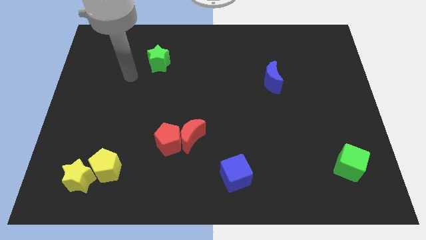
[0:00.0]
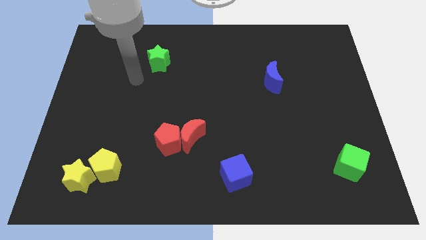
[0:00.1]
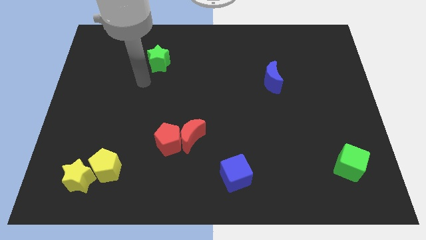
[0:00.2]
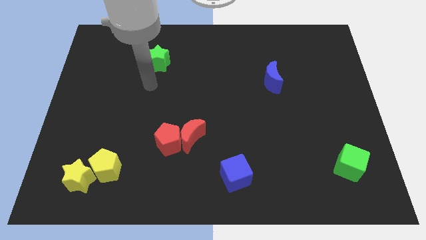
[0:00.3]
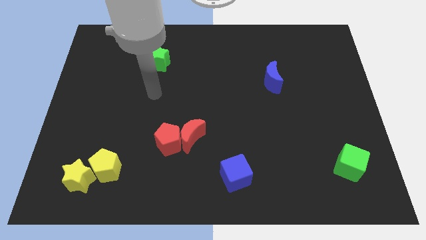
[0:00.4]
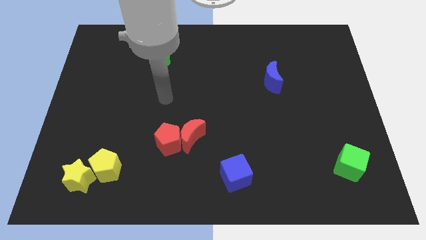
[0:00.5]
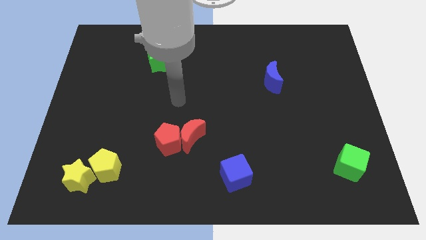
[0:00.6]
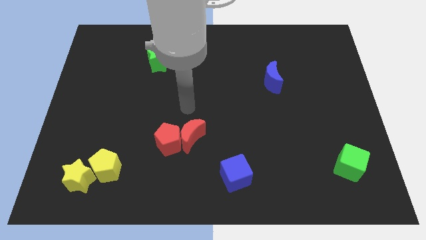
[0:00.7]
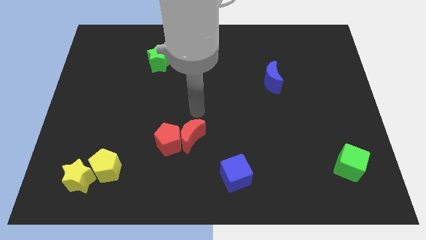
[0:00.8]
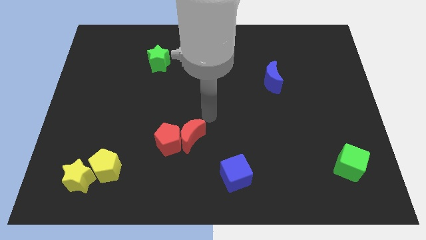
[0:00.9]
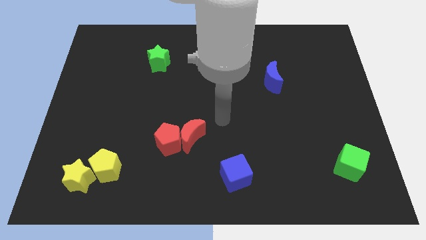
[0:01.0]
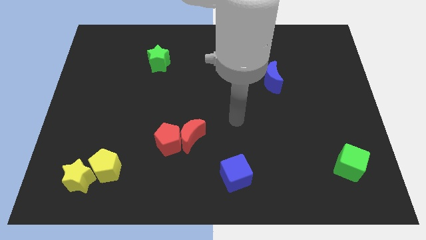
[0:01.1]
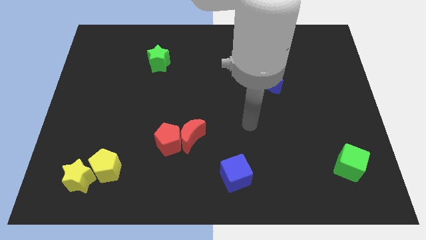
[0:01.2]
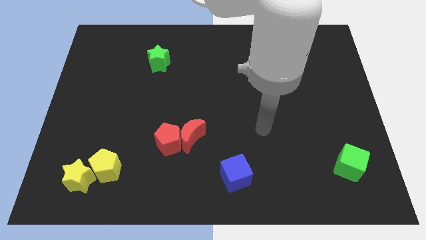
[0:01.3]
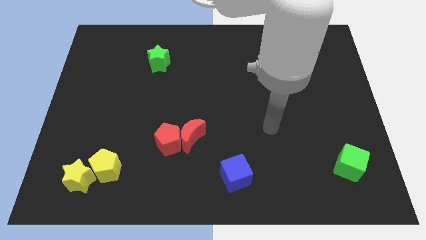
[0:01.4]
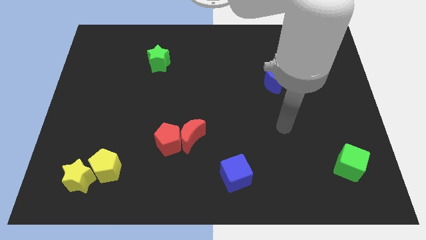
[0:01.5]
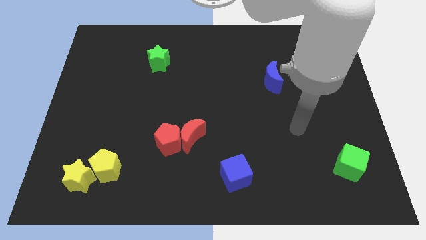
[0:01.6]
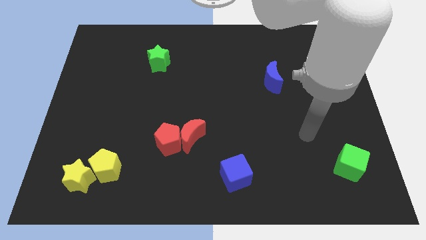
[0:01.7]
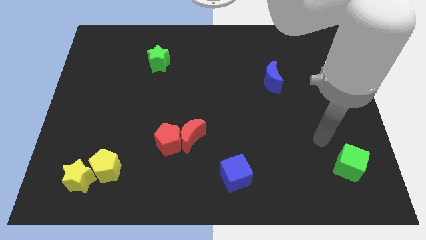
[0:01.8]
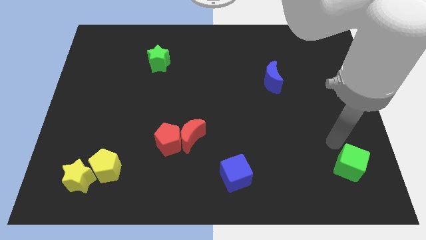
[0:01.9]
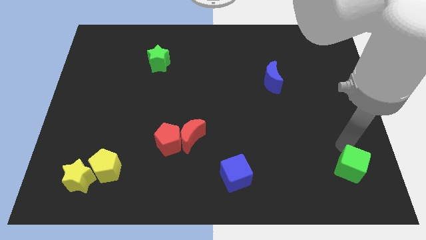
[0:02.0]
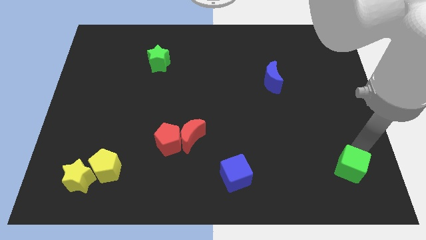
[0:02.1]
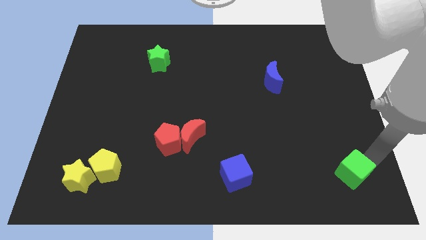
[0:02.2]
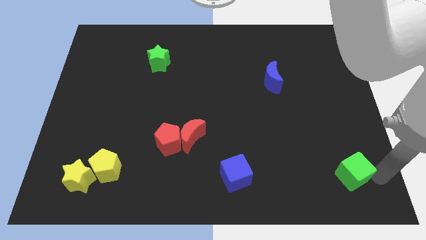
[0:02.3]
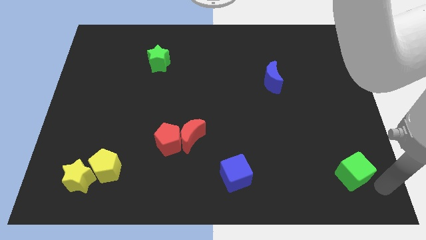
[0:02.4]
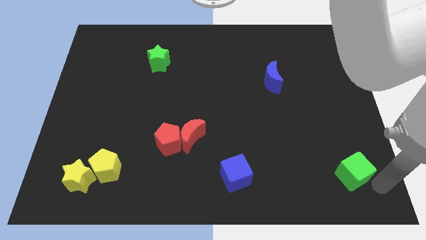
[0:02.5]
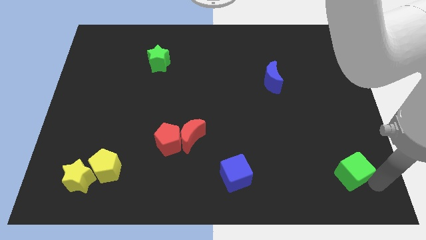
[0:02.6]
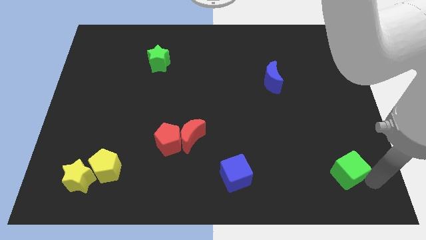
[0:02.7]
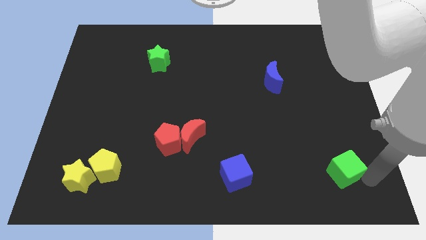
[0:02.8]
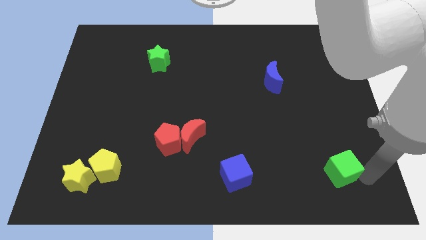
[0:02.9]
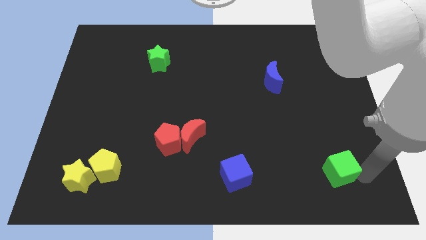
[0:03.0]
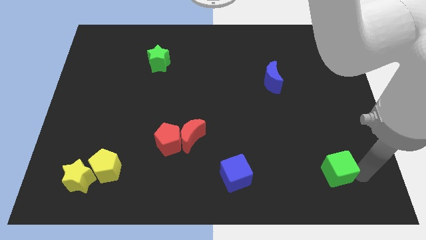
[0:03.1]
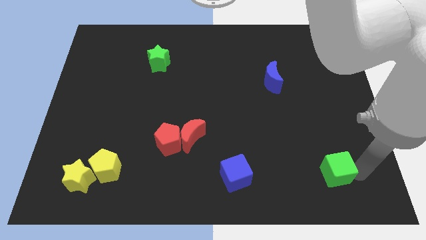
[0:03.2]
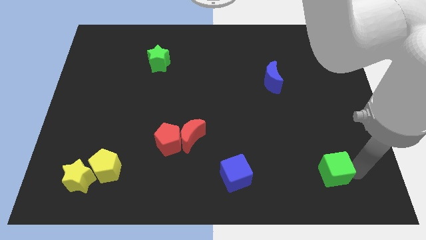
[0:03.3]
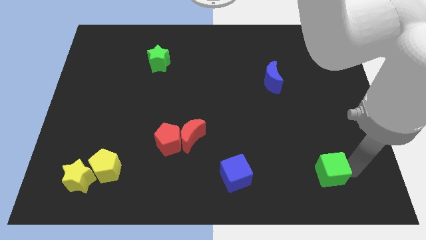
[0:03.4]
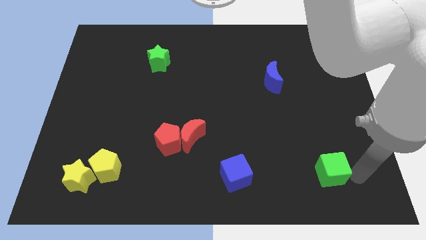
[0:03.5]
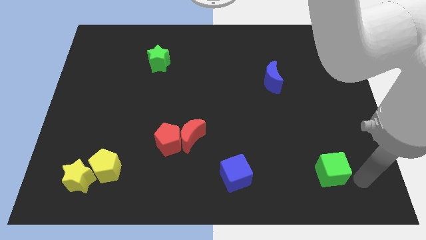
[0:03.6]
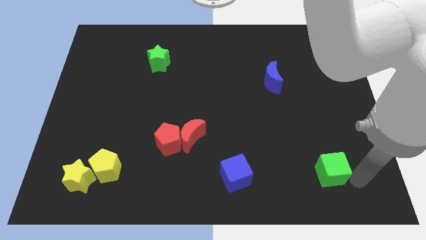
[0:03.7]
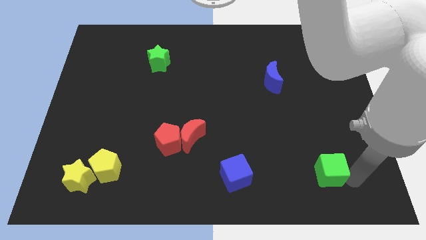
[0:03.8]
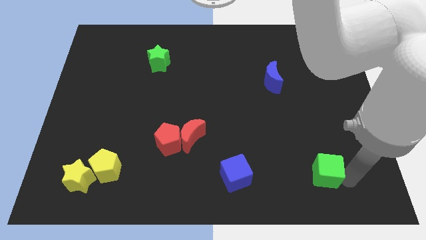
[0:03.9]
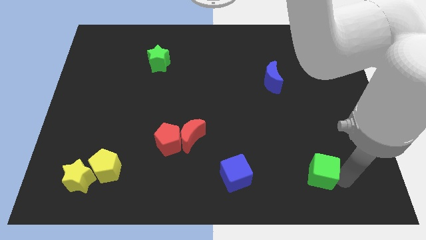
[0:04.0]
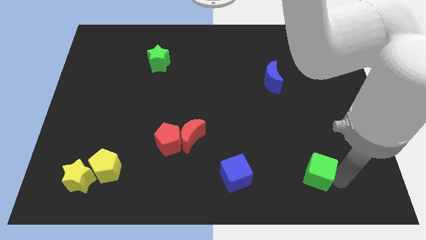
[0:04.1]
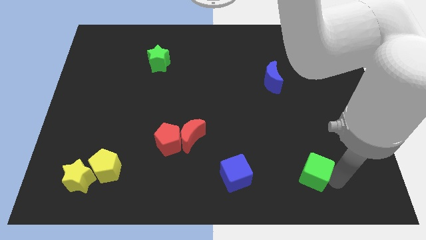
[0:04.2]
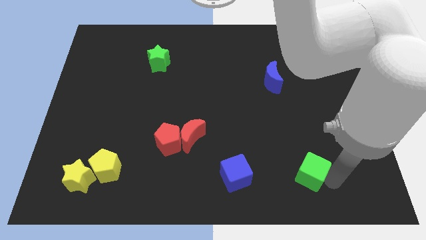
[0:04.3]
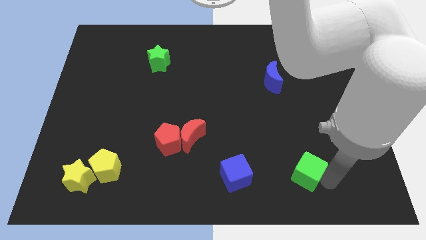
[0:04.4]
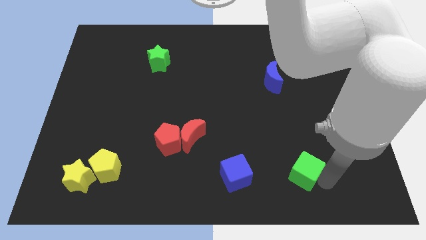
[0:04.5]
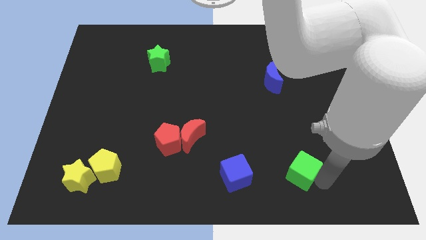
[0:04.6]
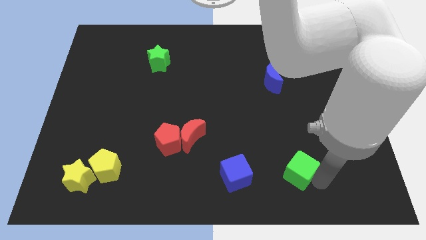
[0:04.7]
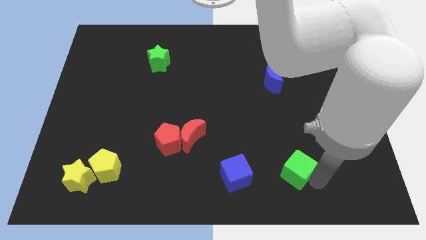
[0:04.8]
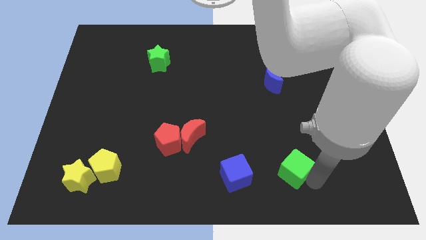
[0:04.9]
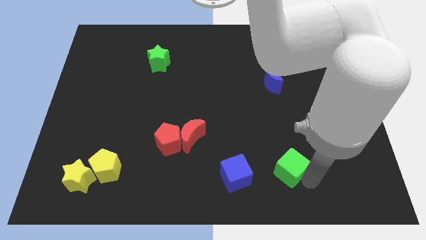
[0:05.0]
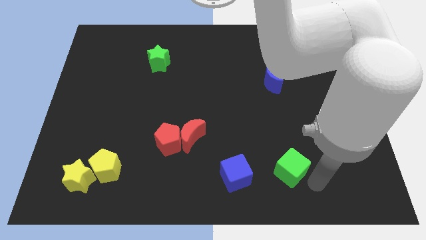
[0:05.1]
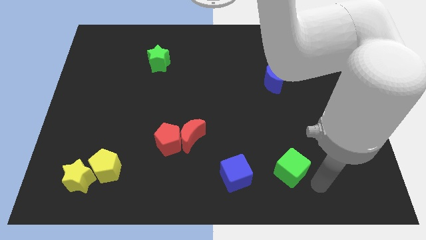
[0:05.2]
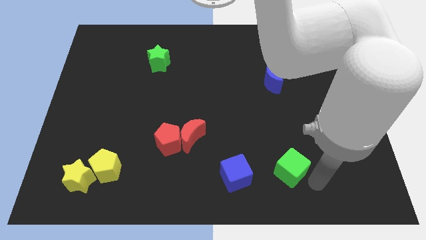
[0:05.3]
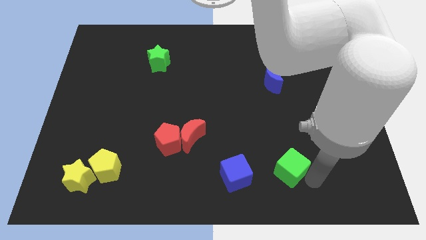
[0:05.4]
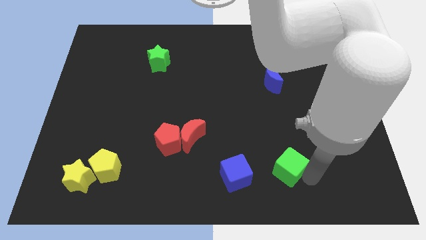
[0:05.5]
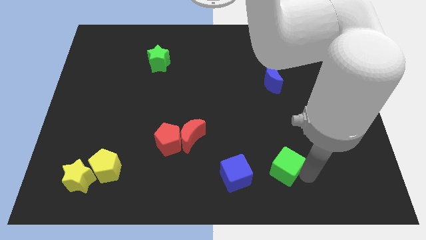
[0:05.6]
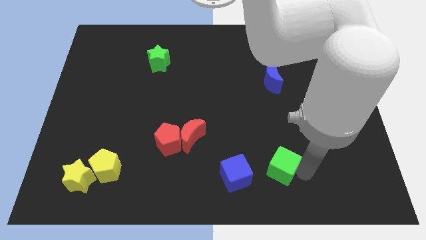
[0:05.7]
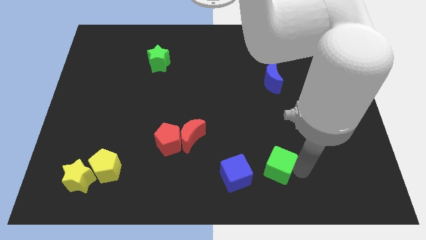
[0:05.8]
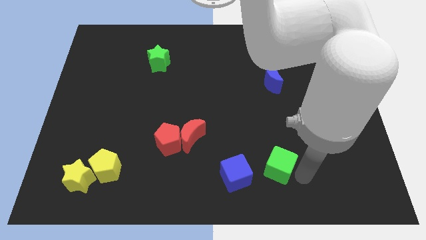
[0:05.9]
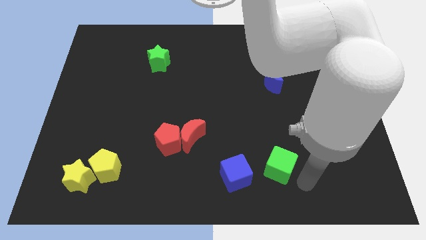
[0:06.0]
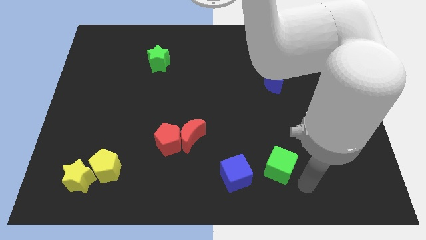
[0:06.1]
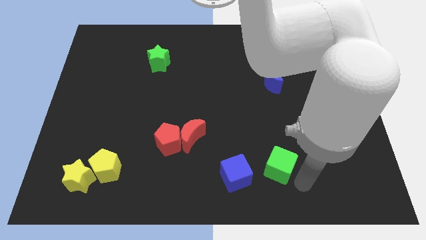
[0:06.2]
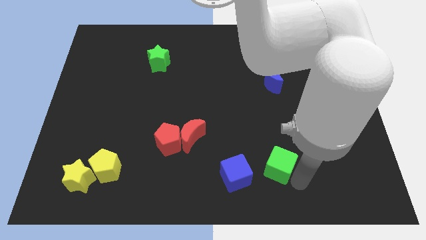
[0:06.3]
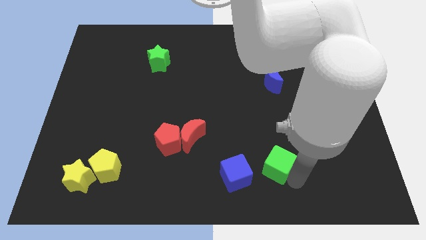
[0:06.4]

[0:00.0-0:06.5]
slide the green cube diagonally up and to the right of the blue cube
